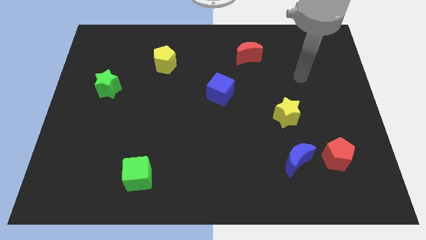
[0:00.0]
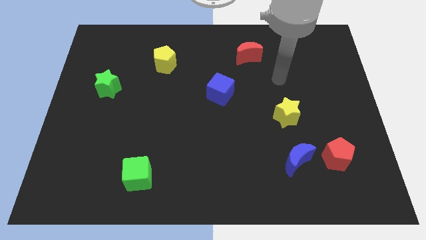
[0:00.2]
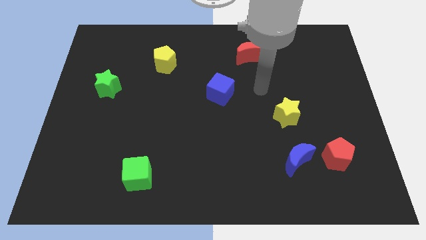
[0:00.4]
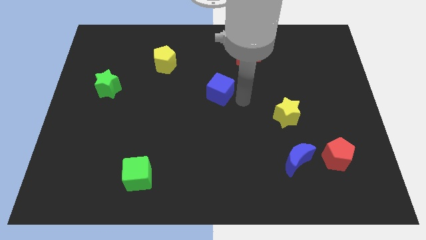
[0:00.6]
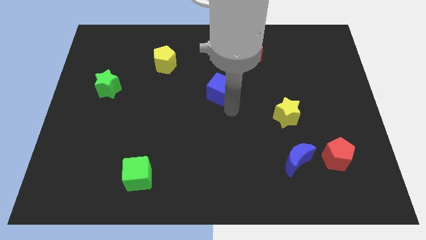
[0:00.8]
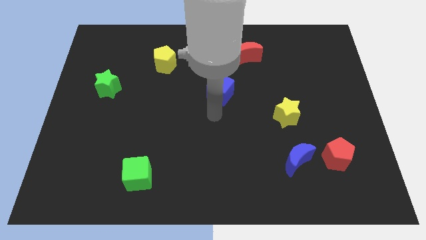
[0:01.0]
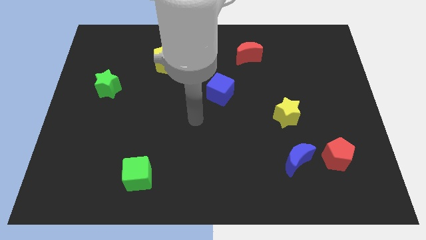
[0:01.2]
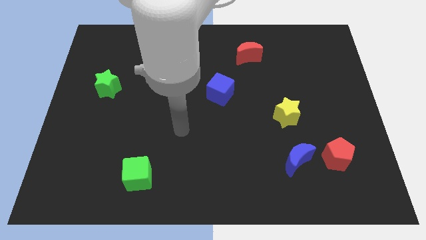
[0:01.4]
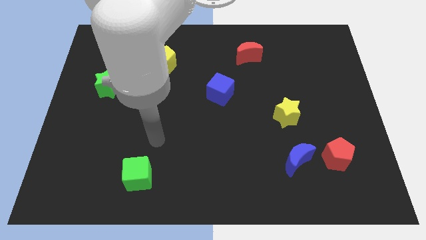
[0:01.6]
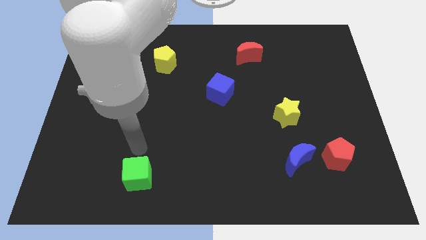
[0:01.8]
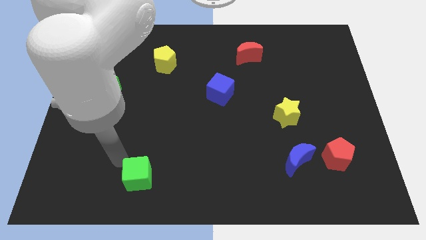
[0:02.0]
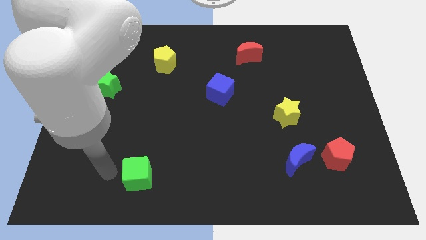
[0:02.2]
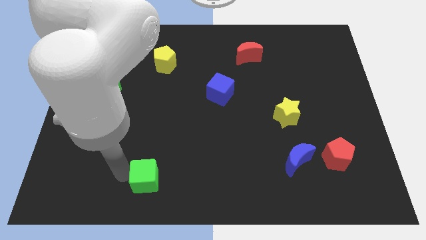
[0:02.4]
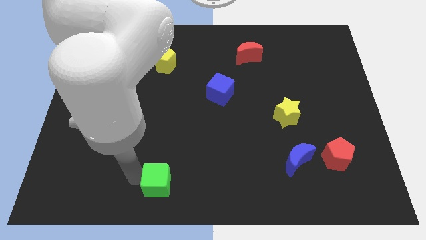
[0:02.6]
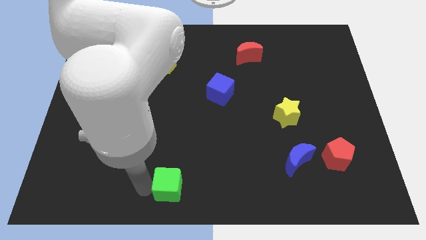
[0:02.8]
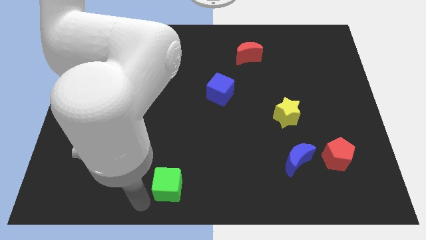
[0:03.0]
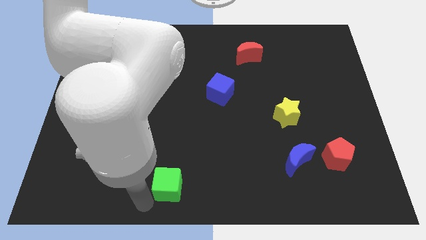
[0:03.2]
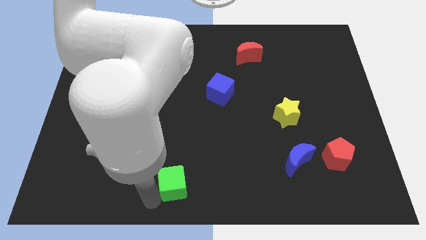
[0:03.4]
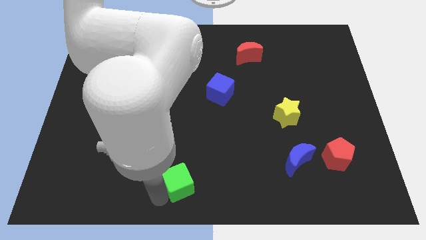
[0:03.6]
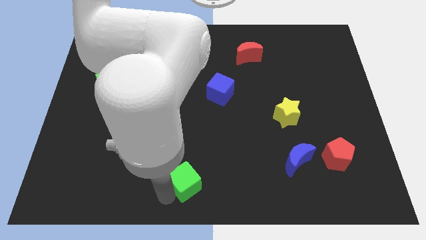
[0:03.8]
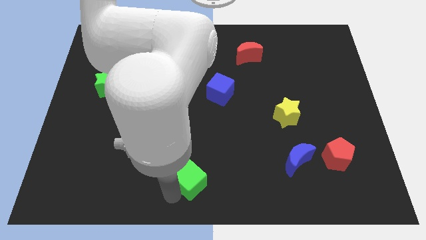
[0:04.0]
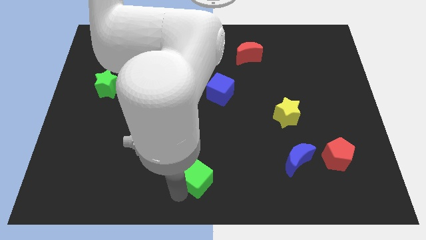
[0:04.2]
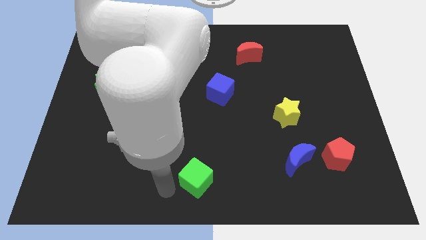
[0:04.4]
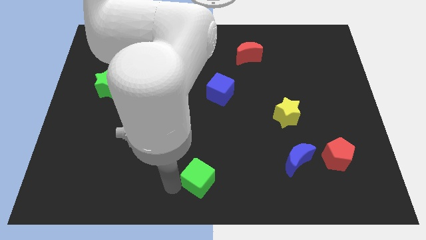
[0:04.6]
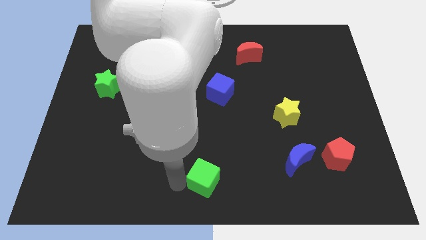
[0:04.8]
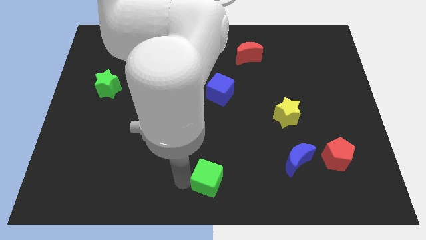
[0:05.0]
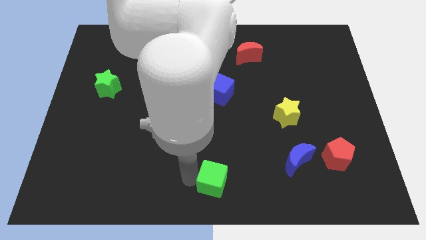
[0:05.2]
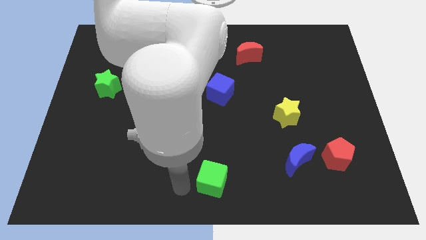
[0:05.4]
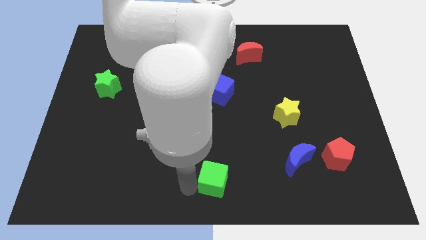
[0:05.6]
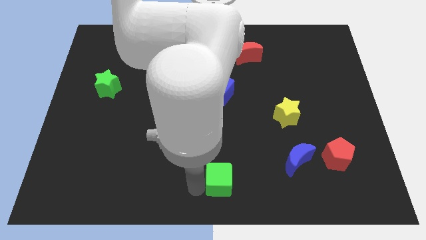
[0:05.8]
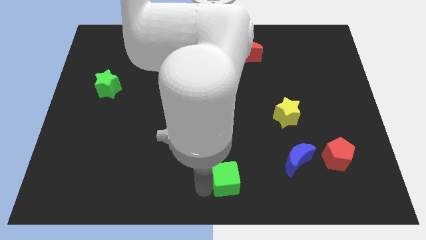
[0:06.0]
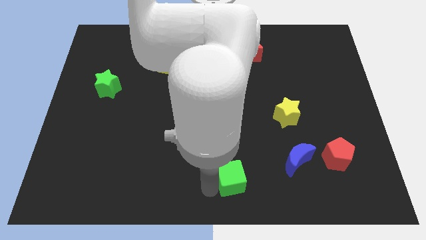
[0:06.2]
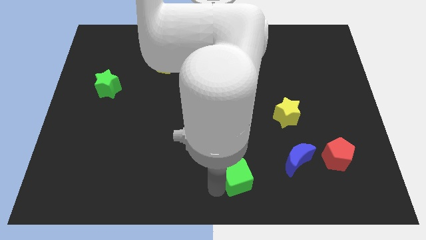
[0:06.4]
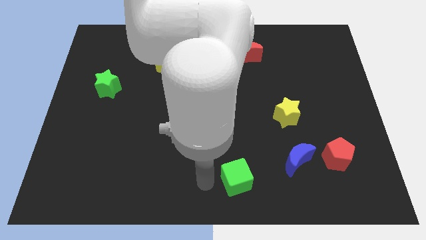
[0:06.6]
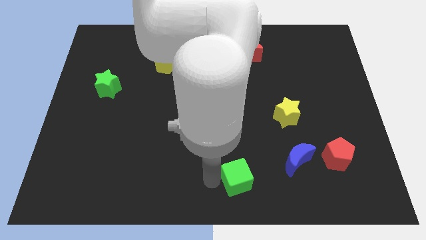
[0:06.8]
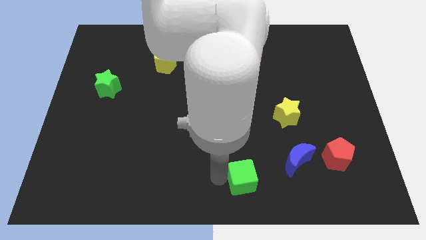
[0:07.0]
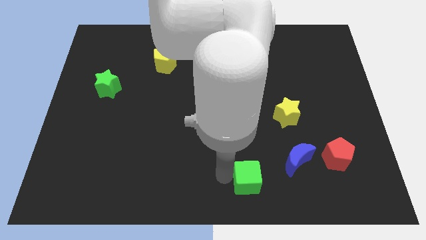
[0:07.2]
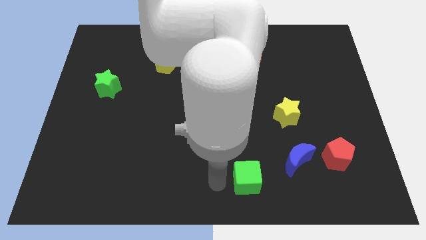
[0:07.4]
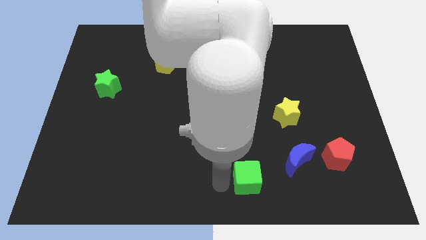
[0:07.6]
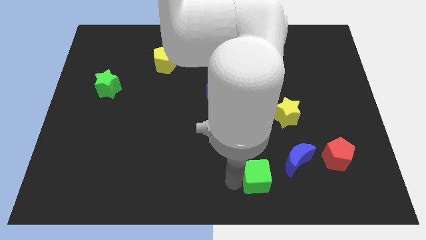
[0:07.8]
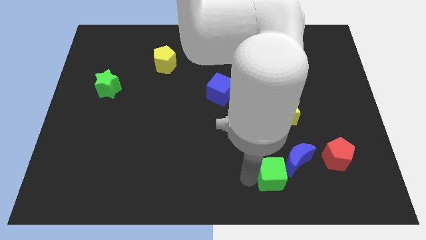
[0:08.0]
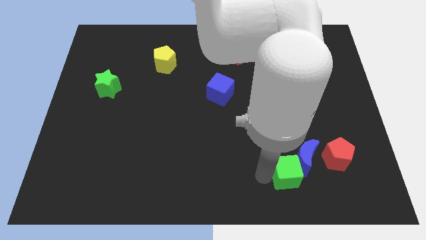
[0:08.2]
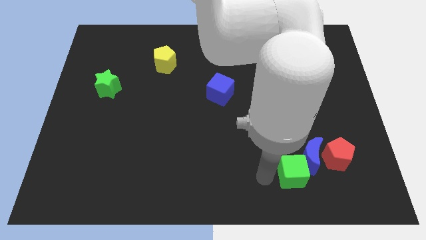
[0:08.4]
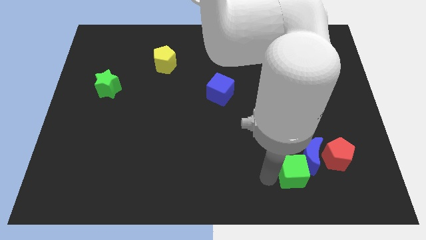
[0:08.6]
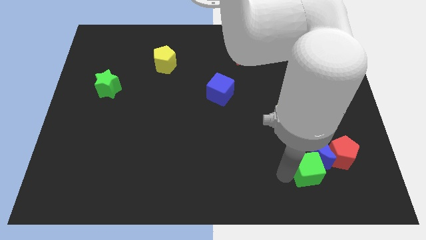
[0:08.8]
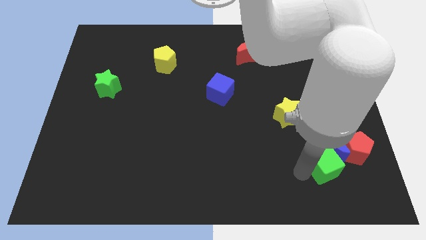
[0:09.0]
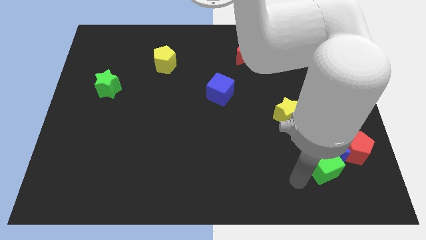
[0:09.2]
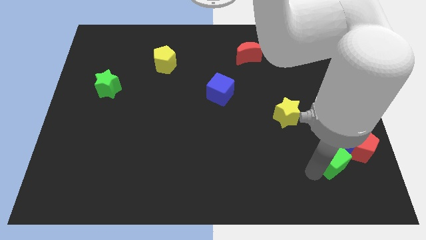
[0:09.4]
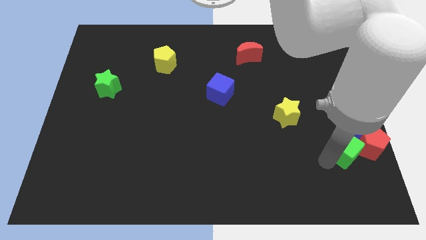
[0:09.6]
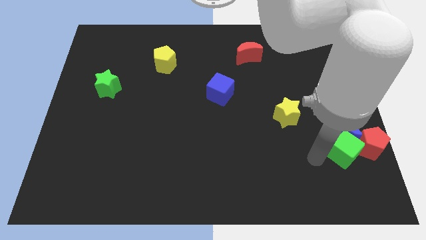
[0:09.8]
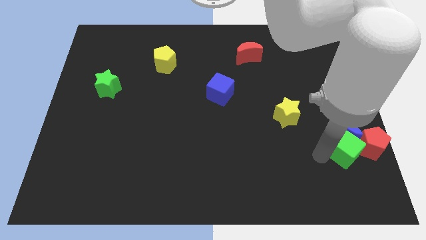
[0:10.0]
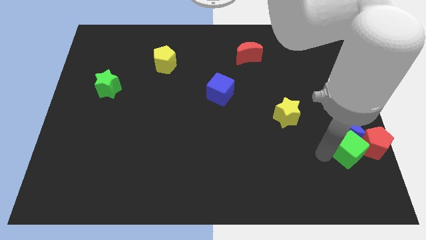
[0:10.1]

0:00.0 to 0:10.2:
move the green cube close to the red pentagon

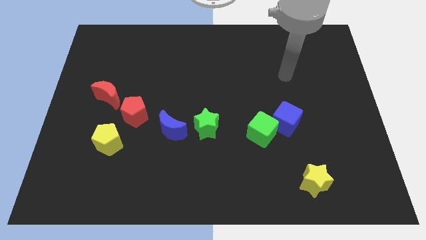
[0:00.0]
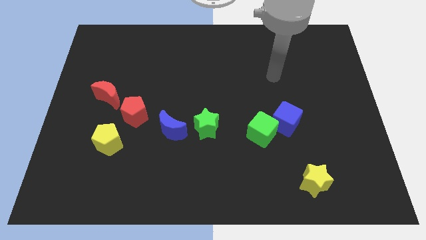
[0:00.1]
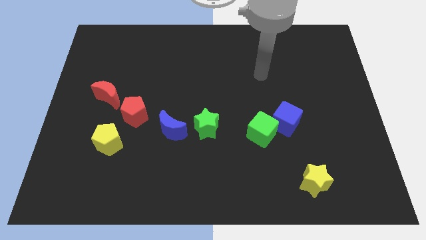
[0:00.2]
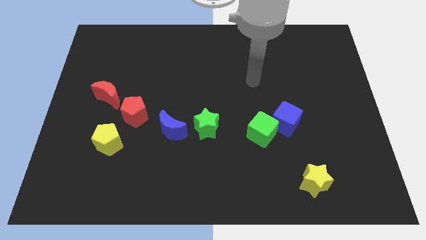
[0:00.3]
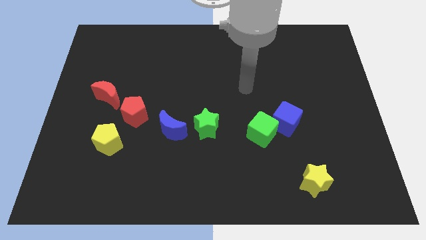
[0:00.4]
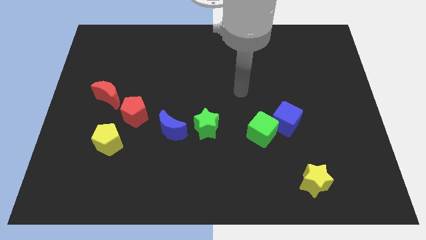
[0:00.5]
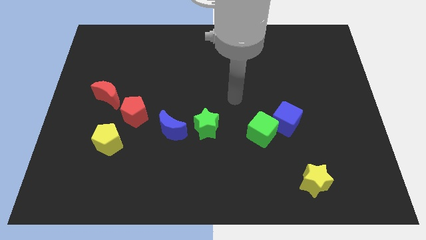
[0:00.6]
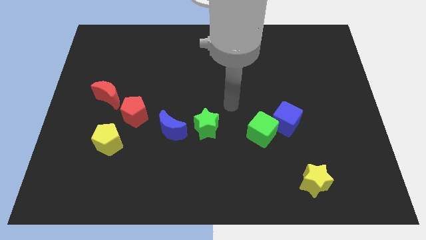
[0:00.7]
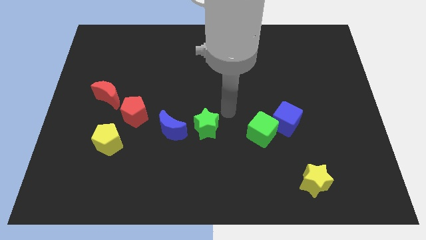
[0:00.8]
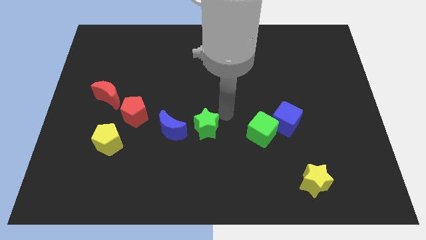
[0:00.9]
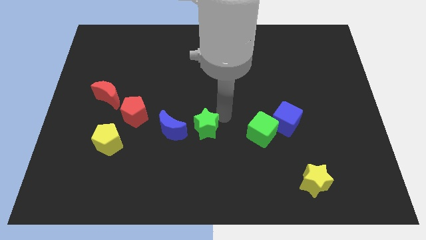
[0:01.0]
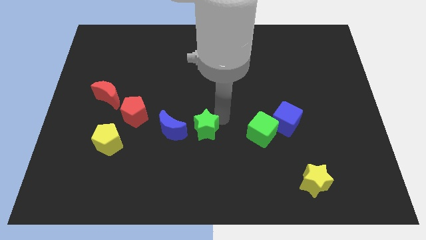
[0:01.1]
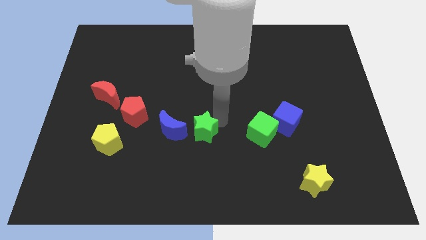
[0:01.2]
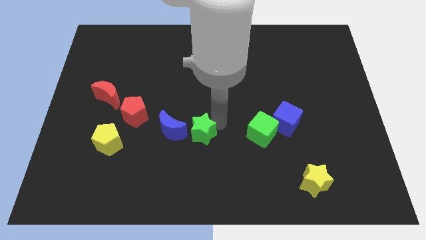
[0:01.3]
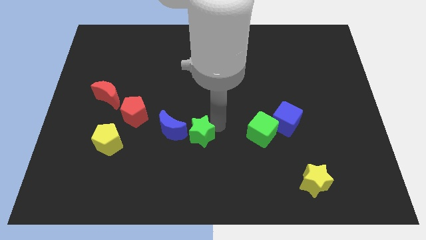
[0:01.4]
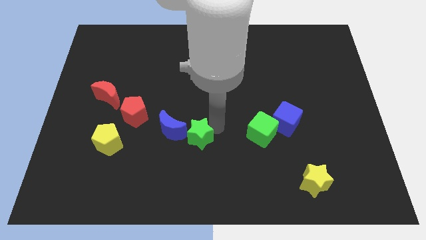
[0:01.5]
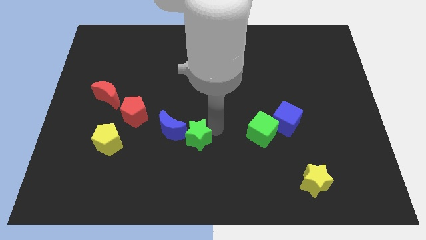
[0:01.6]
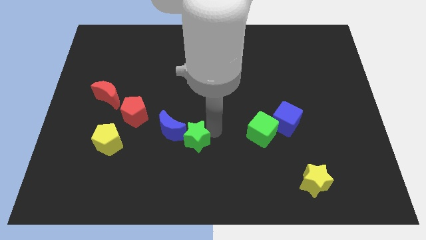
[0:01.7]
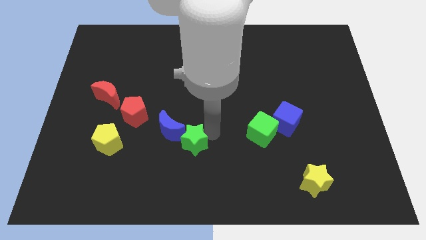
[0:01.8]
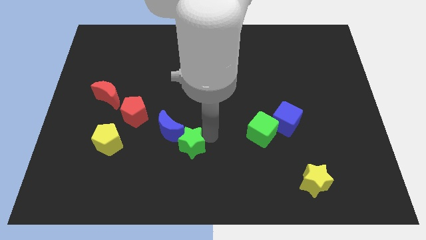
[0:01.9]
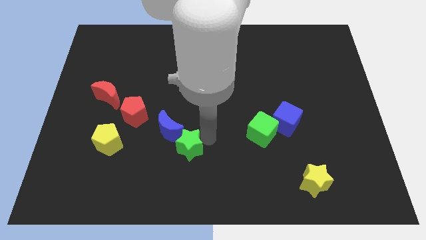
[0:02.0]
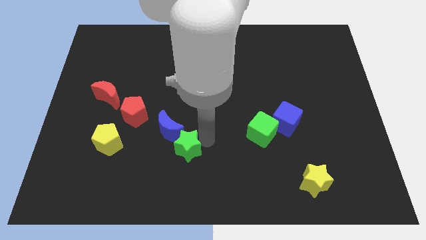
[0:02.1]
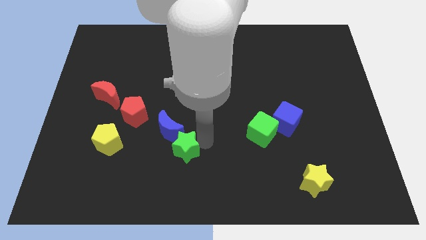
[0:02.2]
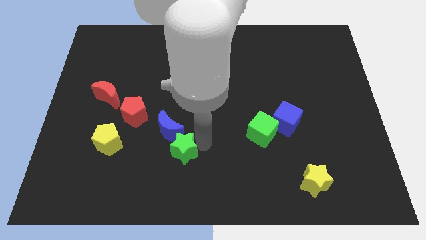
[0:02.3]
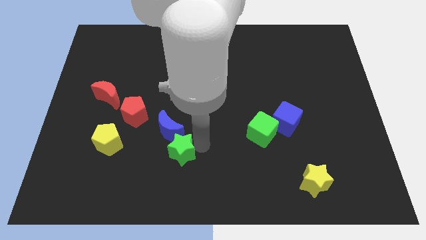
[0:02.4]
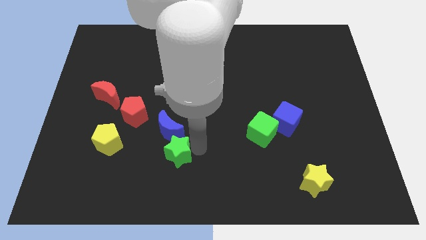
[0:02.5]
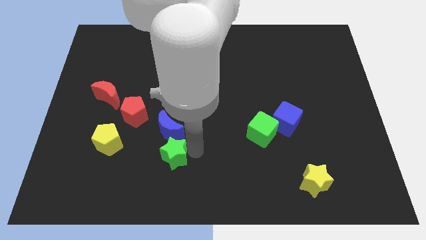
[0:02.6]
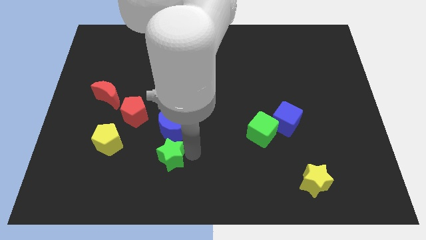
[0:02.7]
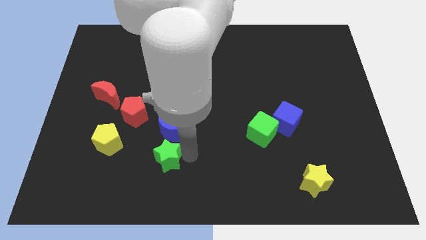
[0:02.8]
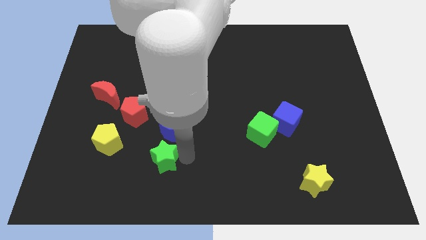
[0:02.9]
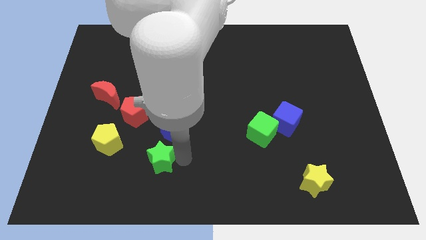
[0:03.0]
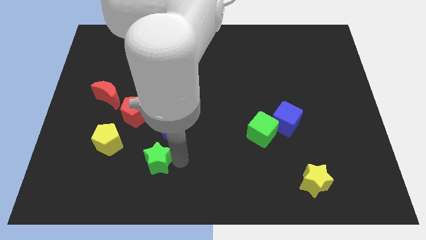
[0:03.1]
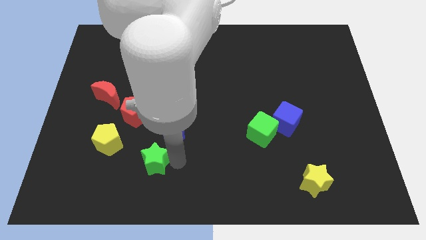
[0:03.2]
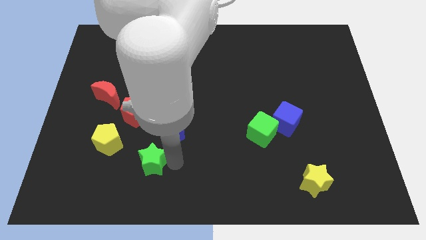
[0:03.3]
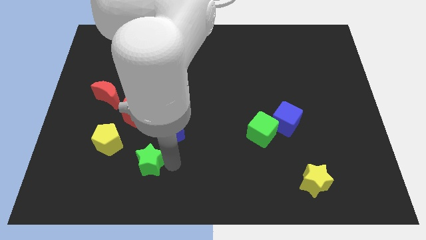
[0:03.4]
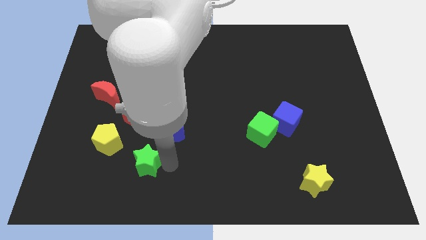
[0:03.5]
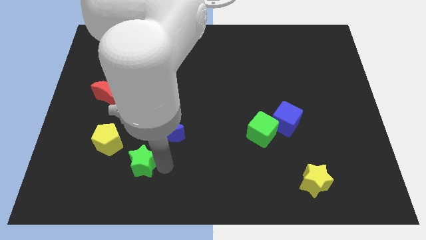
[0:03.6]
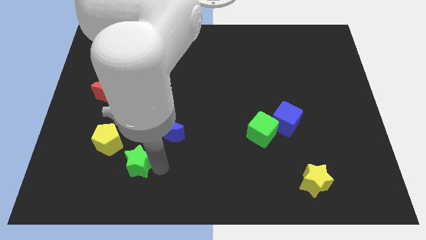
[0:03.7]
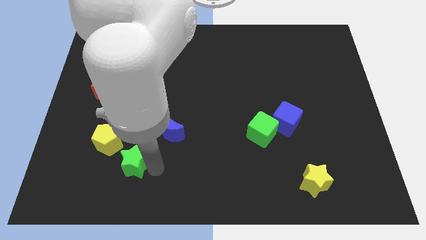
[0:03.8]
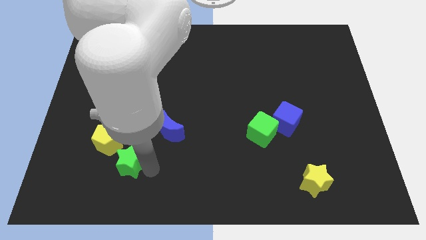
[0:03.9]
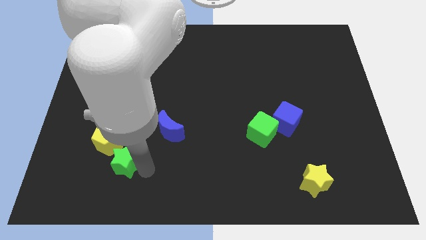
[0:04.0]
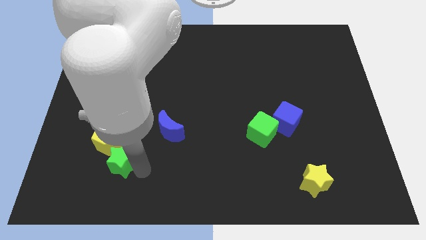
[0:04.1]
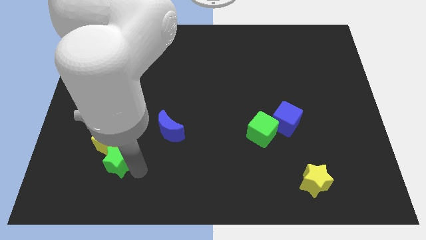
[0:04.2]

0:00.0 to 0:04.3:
slide the green star close to the yellow pentagon
